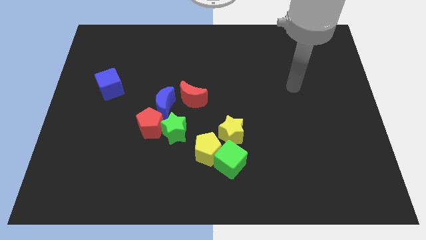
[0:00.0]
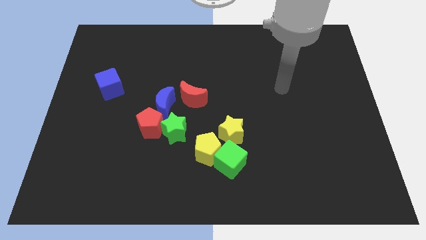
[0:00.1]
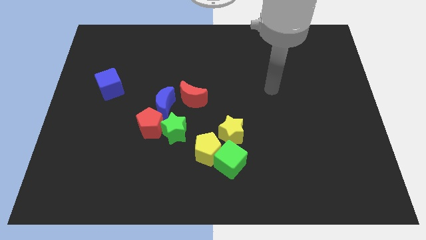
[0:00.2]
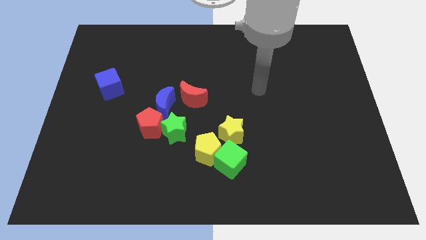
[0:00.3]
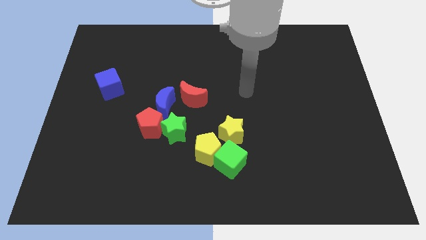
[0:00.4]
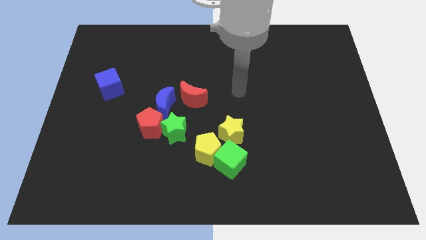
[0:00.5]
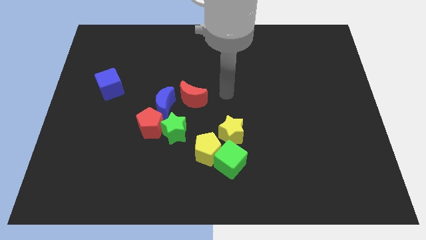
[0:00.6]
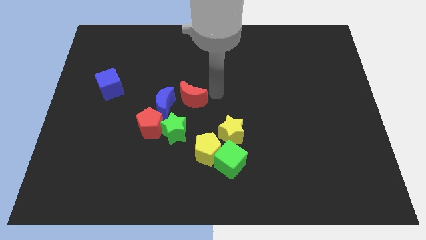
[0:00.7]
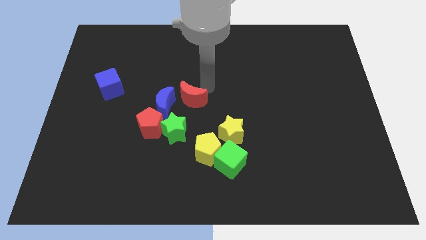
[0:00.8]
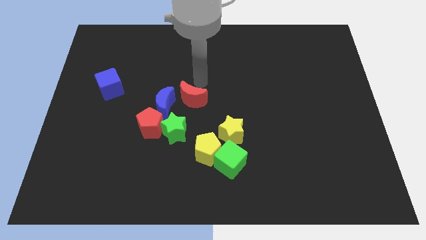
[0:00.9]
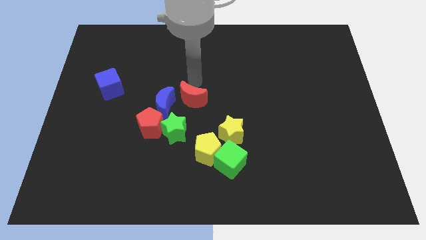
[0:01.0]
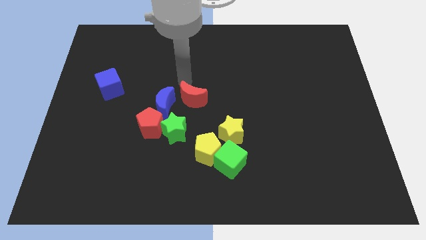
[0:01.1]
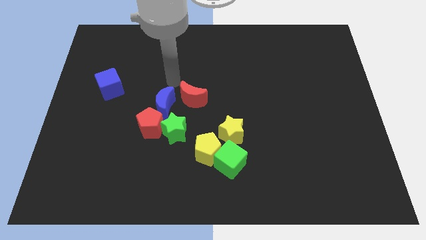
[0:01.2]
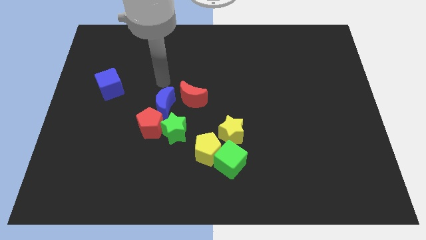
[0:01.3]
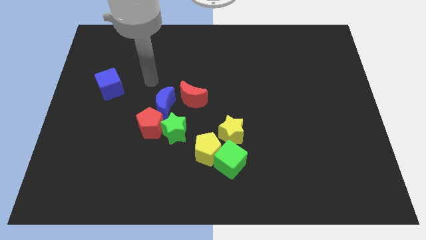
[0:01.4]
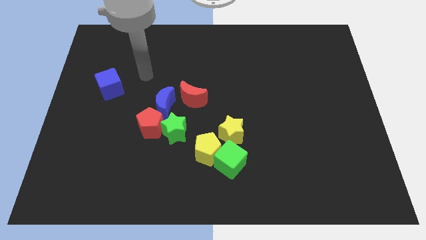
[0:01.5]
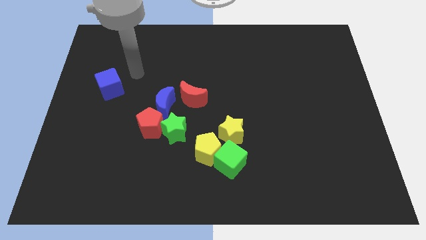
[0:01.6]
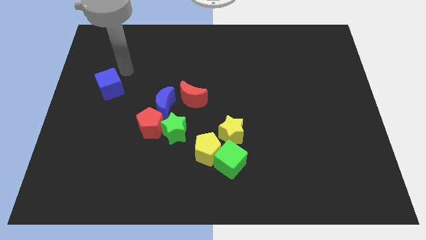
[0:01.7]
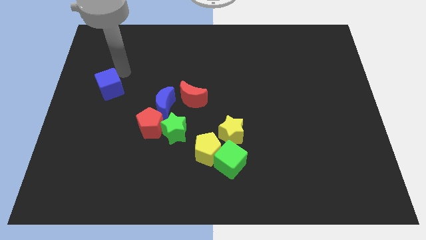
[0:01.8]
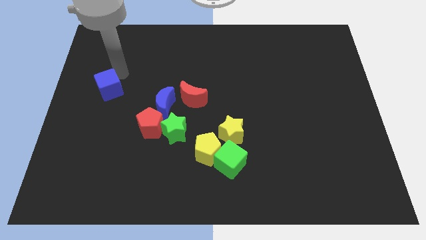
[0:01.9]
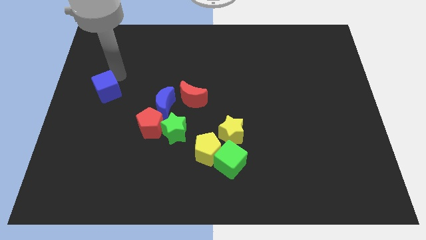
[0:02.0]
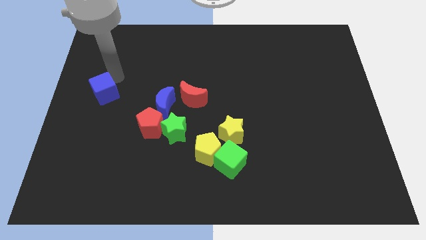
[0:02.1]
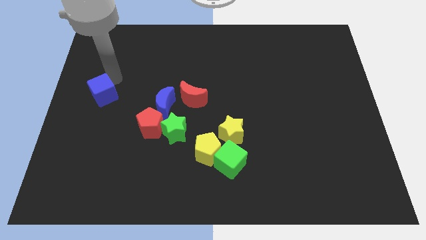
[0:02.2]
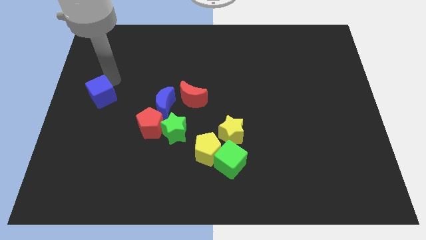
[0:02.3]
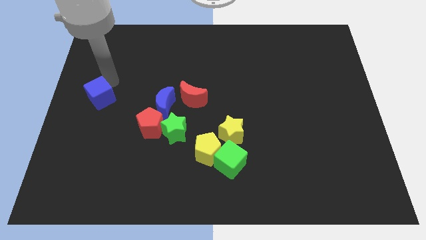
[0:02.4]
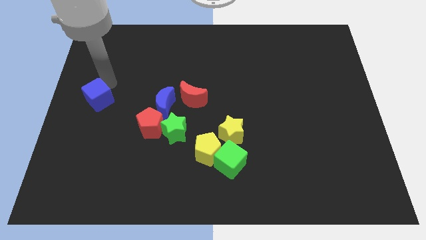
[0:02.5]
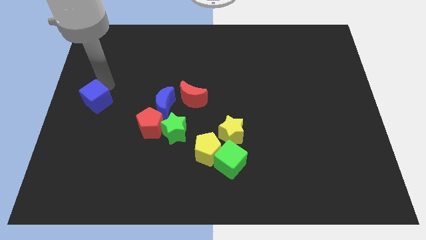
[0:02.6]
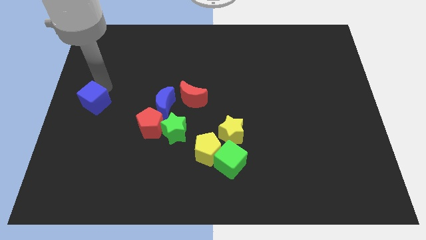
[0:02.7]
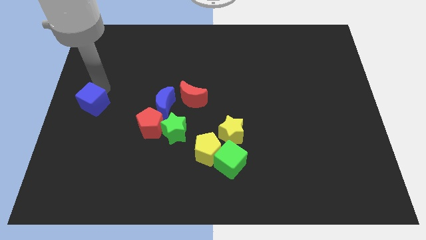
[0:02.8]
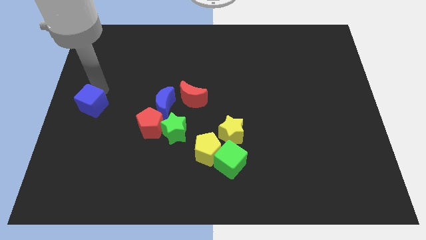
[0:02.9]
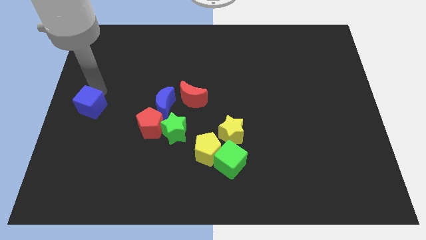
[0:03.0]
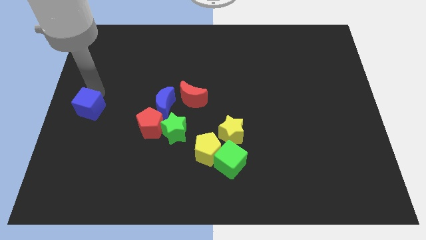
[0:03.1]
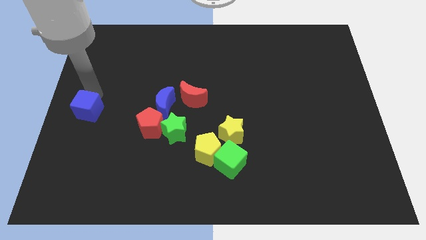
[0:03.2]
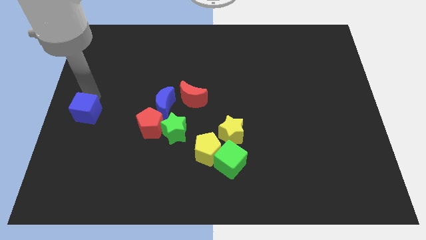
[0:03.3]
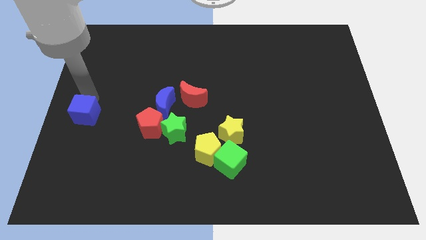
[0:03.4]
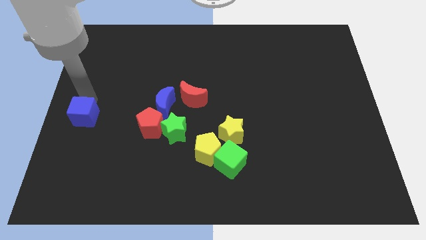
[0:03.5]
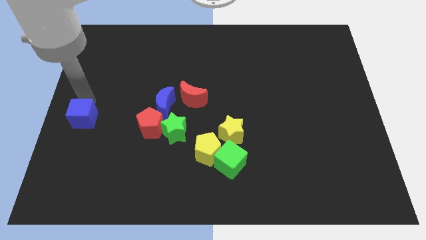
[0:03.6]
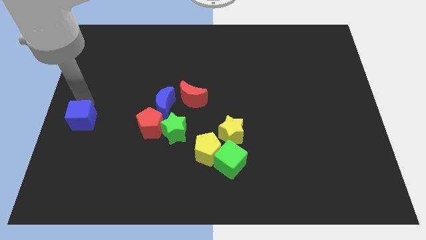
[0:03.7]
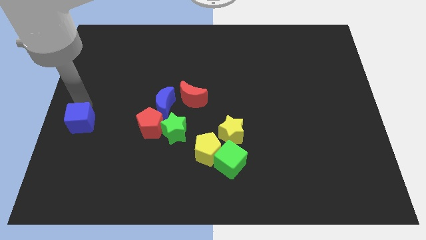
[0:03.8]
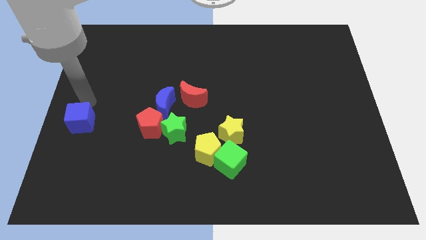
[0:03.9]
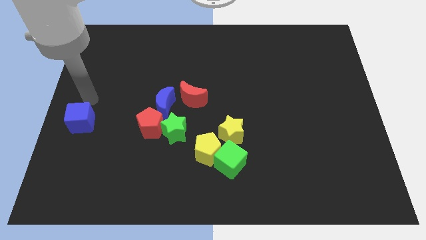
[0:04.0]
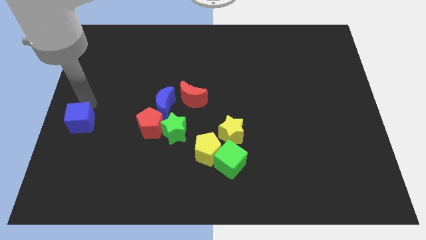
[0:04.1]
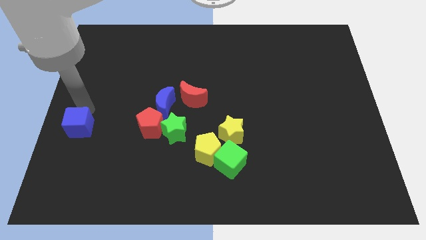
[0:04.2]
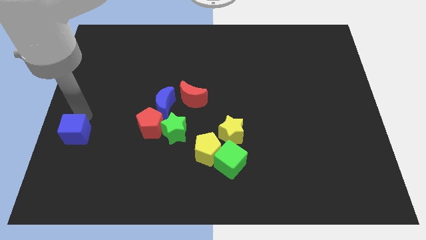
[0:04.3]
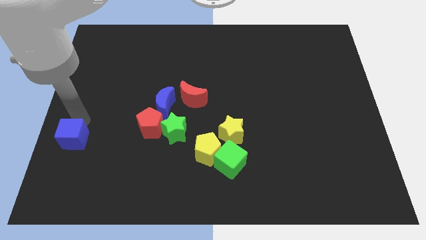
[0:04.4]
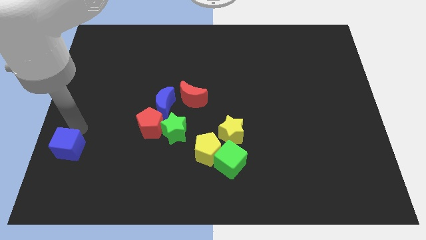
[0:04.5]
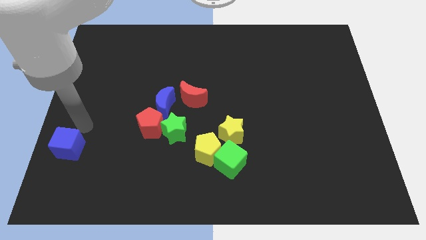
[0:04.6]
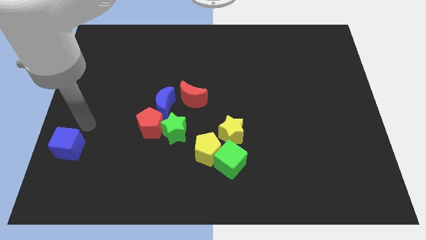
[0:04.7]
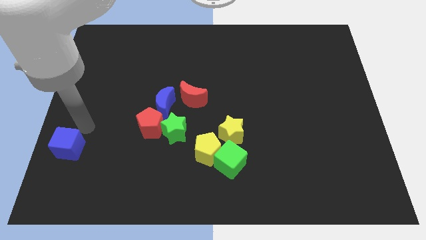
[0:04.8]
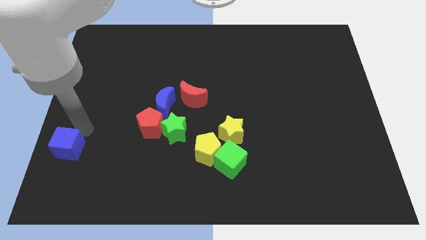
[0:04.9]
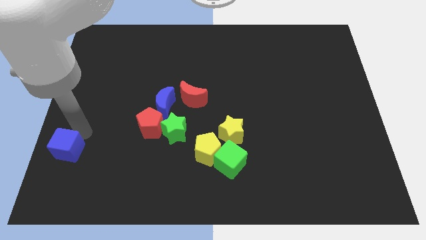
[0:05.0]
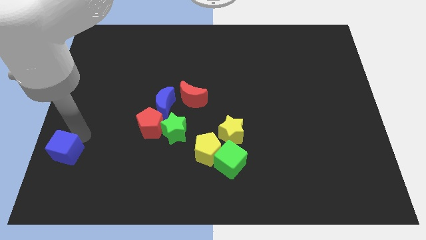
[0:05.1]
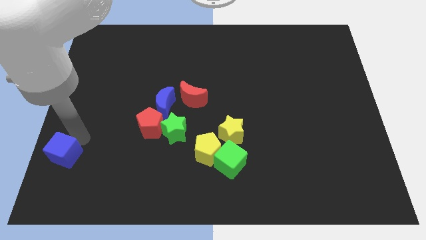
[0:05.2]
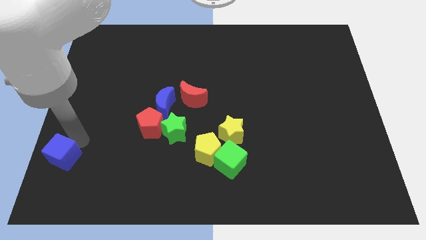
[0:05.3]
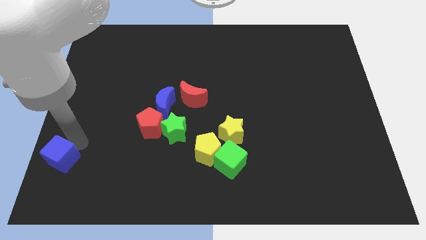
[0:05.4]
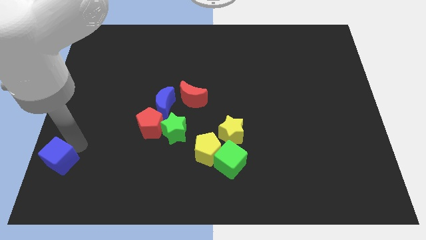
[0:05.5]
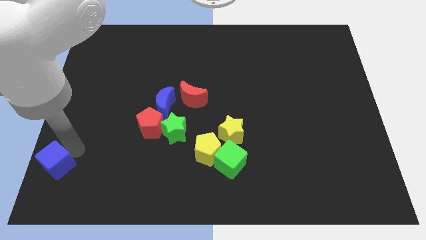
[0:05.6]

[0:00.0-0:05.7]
move the blue cube to the bottom left corner
